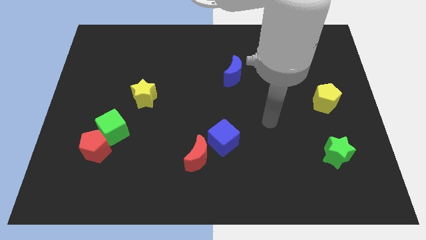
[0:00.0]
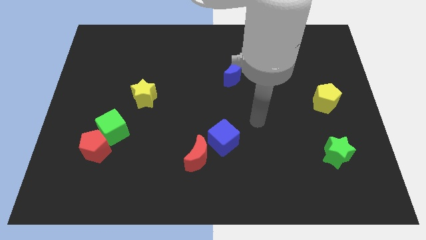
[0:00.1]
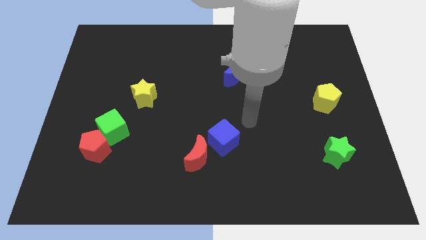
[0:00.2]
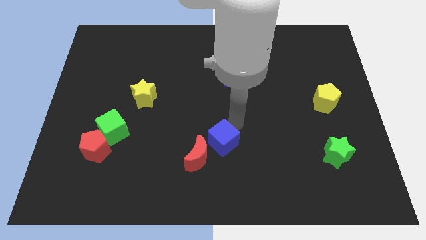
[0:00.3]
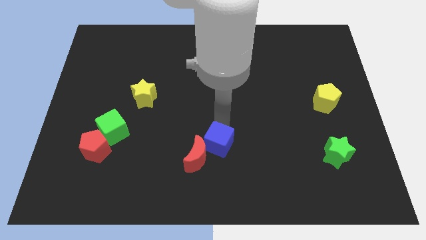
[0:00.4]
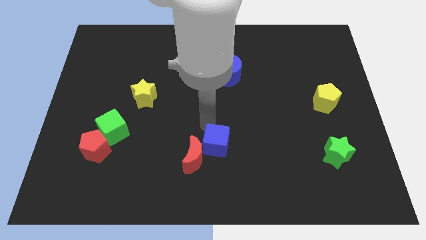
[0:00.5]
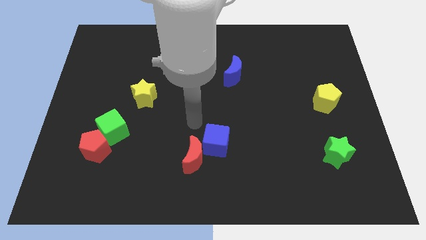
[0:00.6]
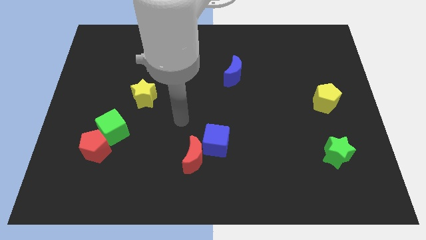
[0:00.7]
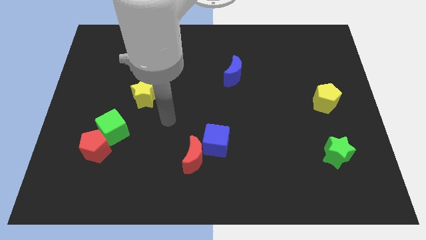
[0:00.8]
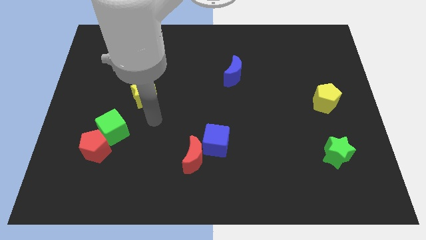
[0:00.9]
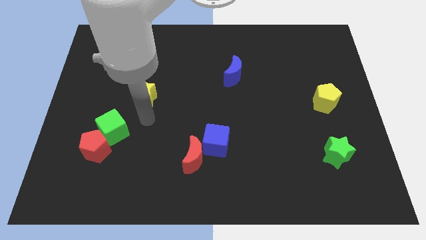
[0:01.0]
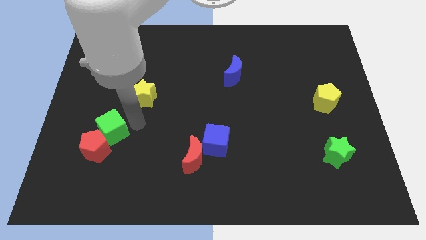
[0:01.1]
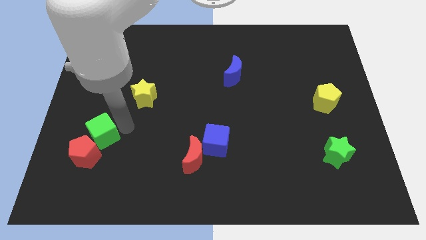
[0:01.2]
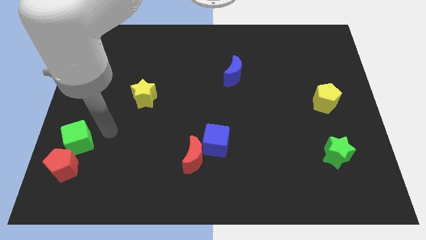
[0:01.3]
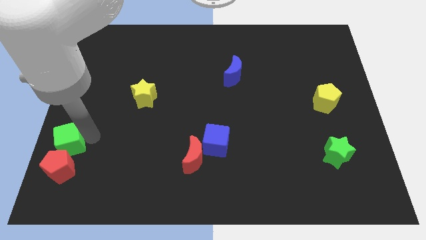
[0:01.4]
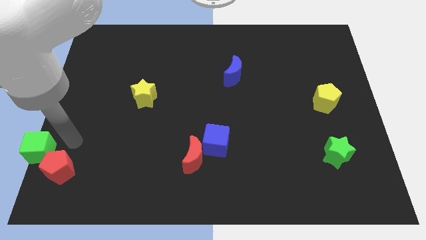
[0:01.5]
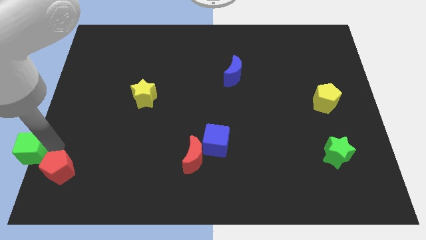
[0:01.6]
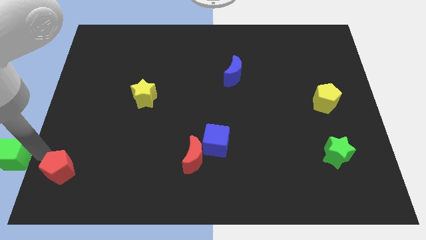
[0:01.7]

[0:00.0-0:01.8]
move the red pentagon away from the green cube

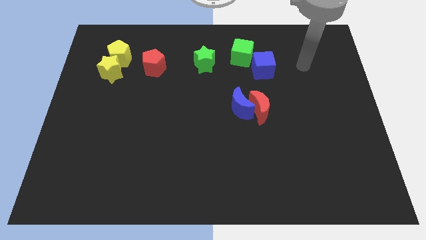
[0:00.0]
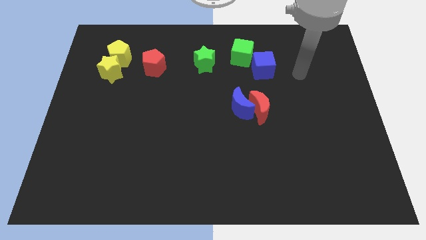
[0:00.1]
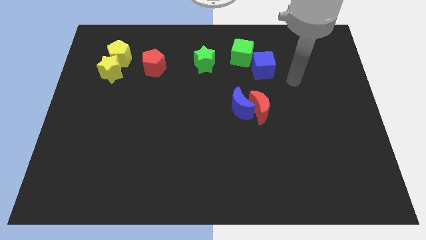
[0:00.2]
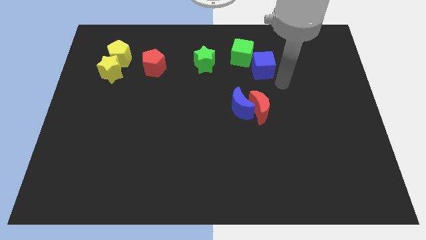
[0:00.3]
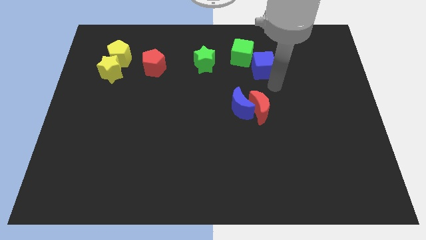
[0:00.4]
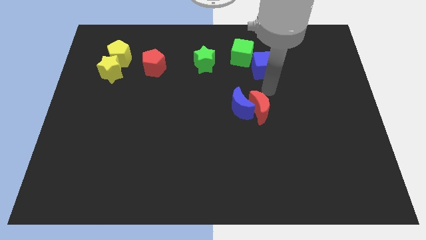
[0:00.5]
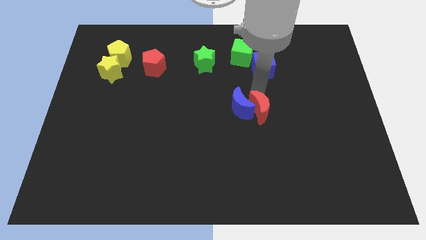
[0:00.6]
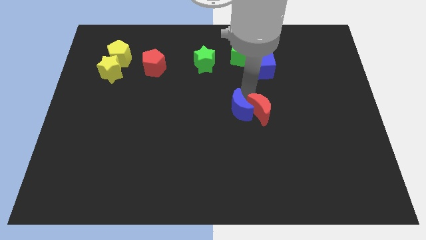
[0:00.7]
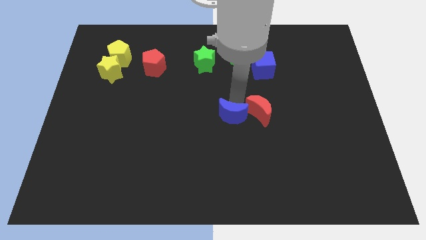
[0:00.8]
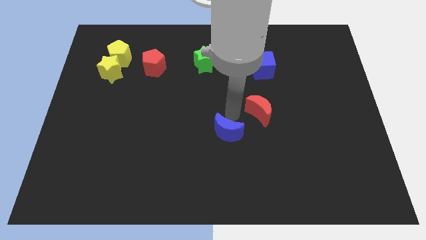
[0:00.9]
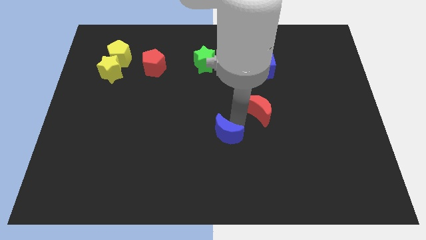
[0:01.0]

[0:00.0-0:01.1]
separate the red moon from the blue moon

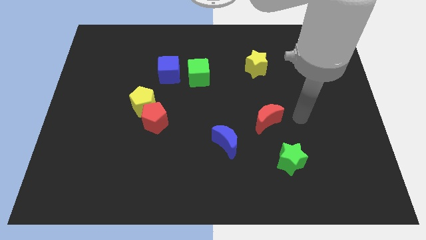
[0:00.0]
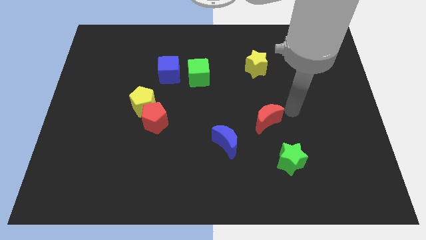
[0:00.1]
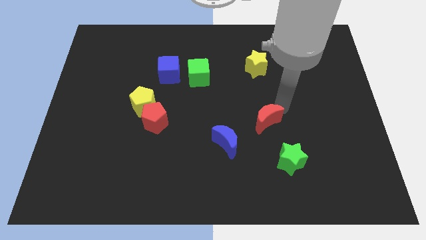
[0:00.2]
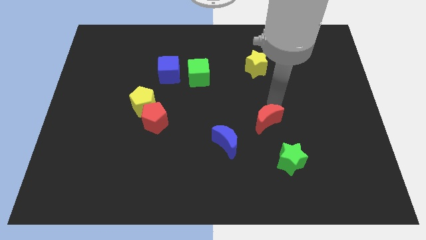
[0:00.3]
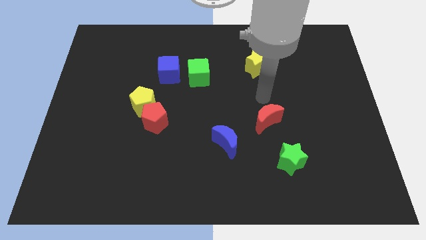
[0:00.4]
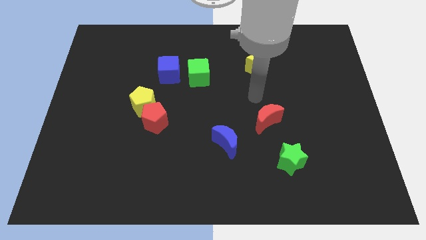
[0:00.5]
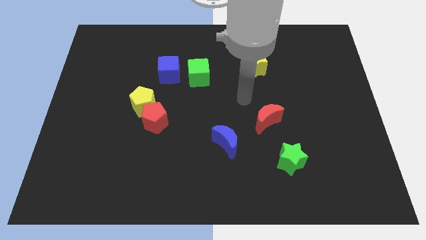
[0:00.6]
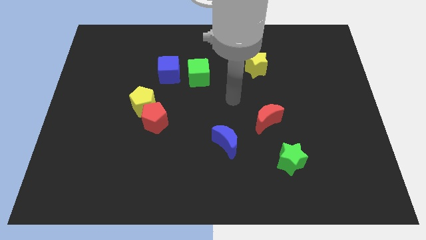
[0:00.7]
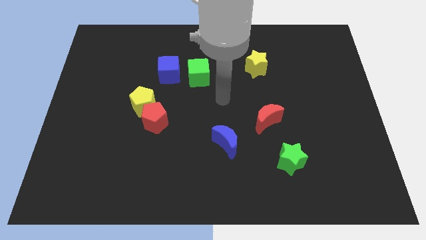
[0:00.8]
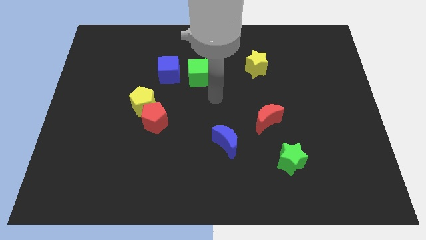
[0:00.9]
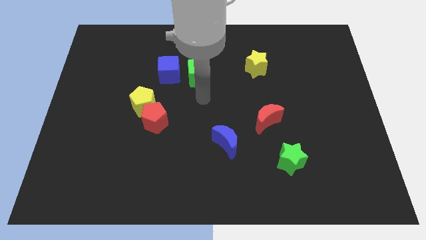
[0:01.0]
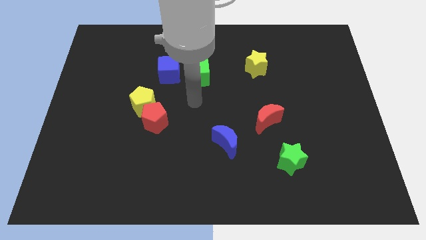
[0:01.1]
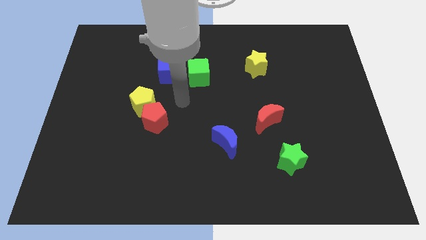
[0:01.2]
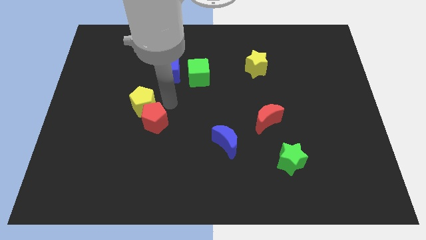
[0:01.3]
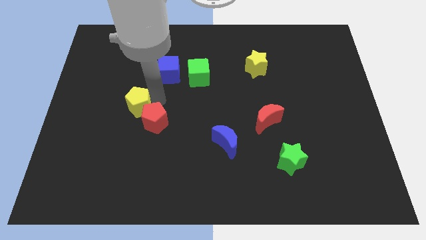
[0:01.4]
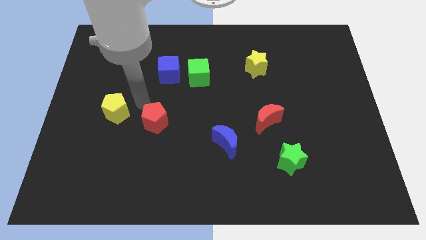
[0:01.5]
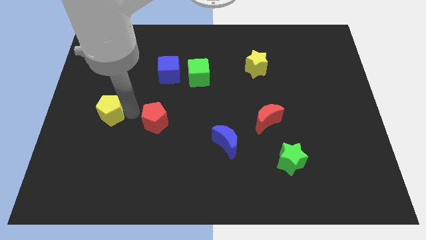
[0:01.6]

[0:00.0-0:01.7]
separate the red pentagon from the yellow pentagon

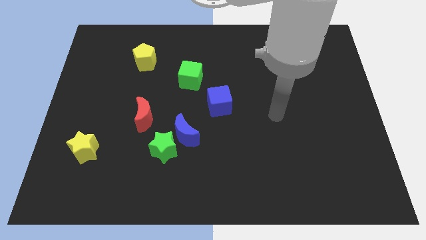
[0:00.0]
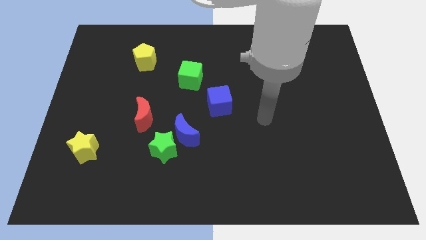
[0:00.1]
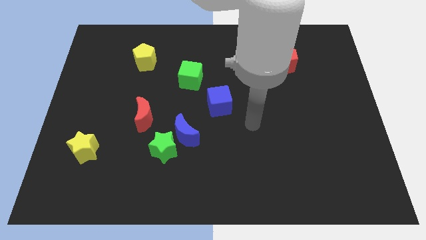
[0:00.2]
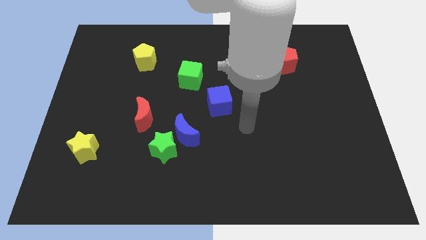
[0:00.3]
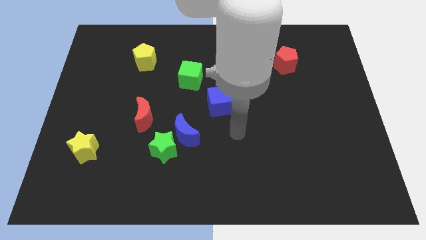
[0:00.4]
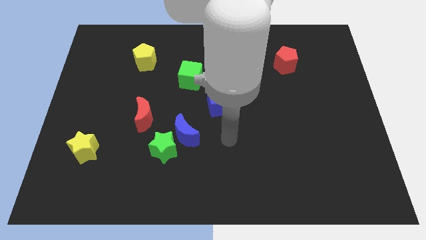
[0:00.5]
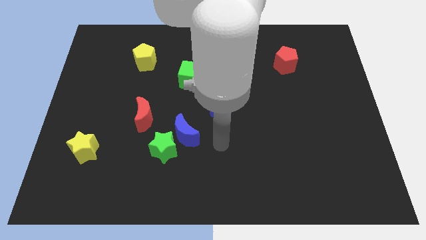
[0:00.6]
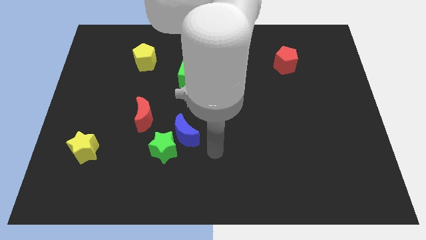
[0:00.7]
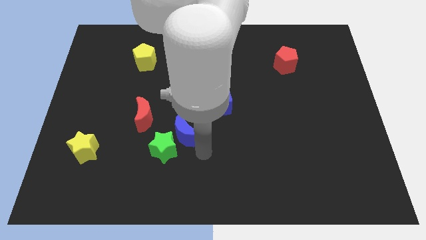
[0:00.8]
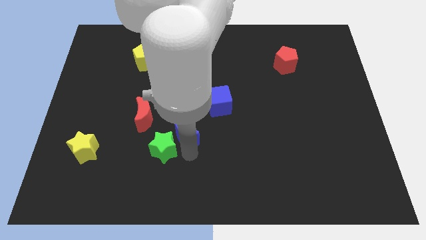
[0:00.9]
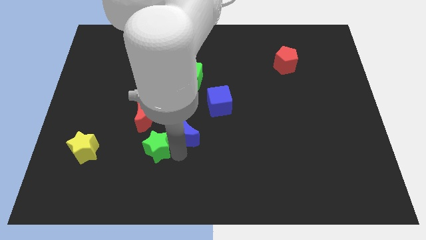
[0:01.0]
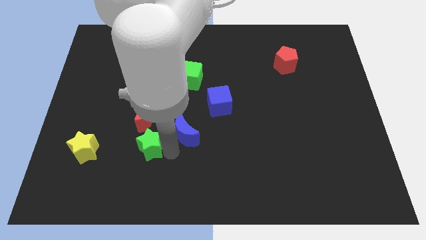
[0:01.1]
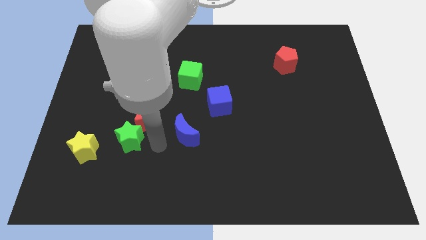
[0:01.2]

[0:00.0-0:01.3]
pull the blue moon apart from the green star

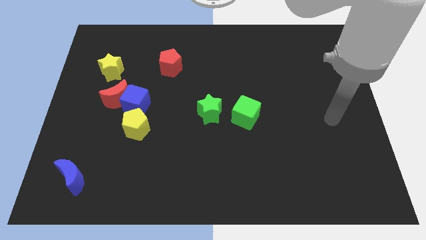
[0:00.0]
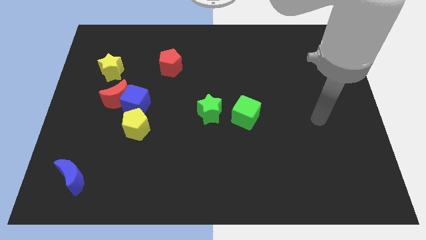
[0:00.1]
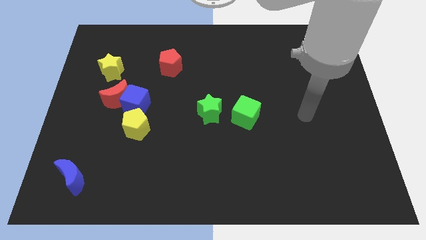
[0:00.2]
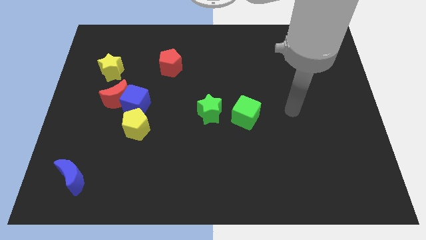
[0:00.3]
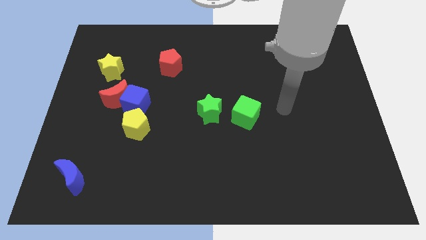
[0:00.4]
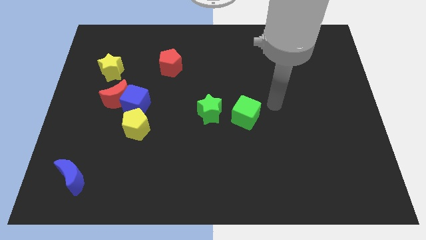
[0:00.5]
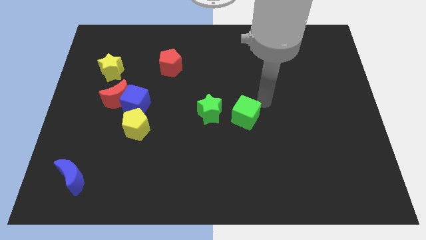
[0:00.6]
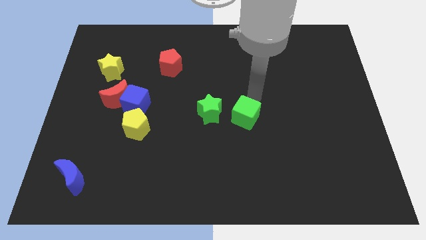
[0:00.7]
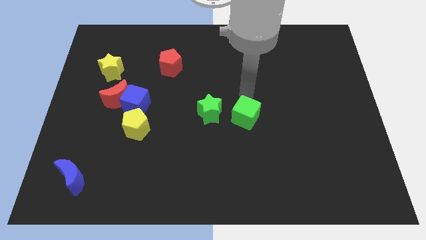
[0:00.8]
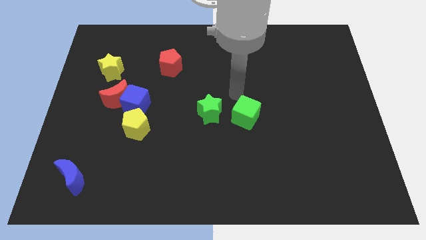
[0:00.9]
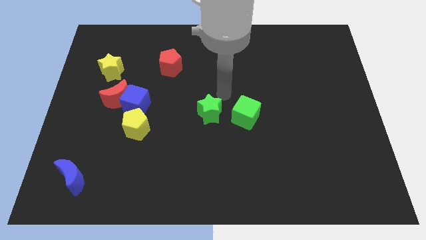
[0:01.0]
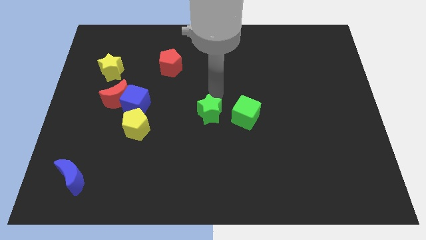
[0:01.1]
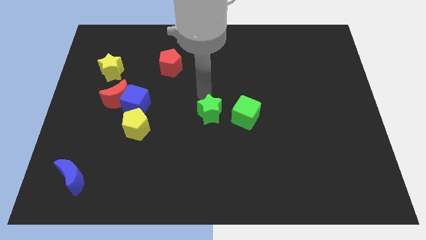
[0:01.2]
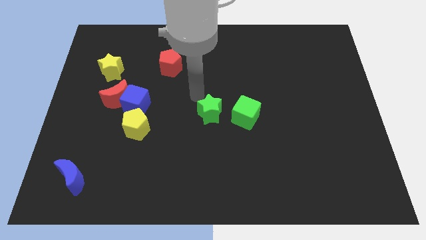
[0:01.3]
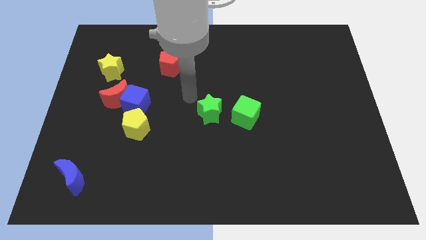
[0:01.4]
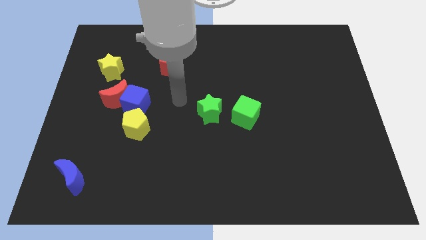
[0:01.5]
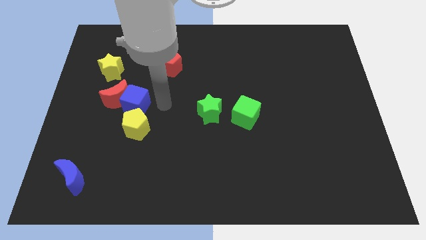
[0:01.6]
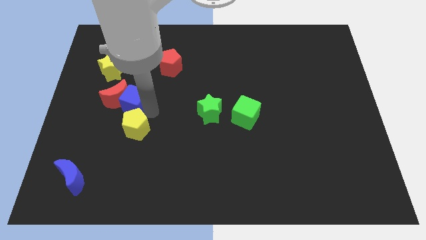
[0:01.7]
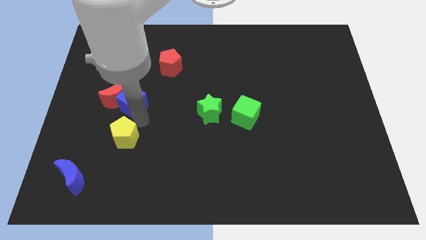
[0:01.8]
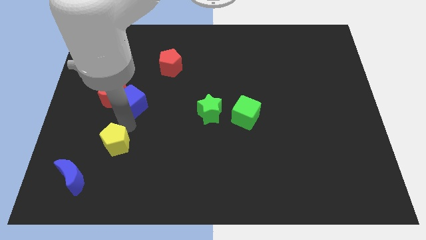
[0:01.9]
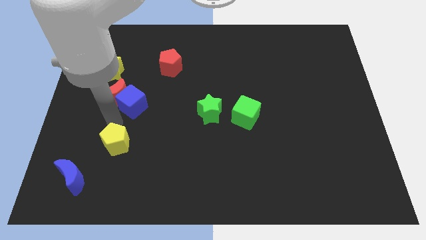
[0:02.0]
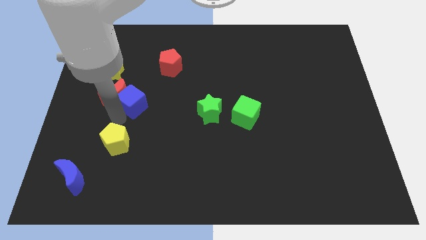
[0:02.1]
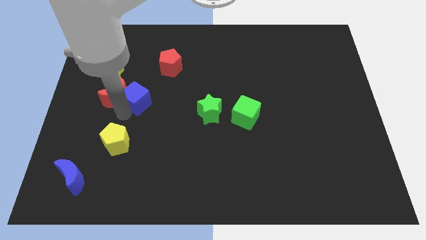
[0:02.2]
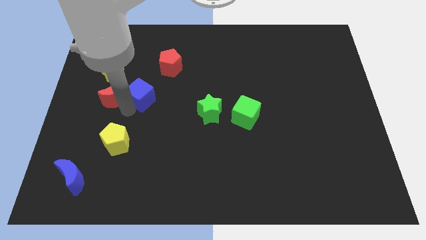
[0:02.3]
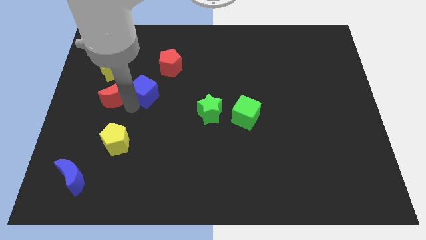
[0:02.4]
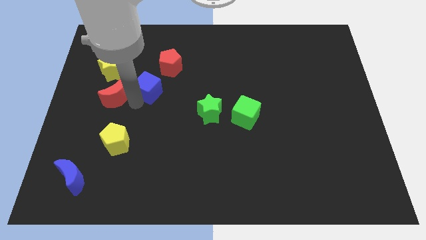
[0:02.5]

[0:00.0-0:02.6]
pull the blue cube apart from the red moon and yellow pentagon

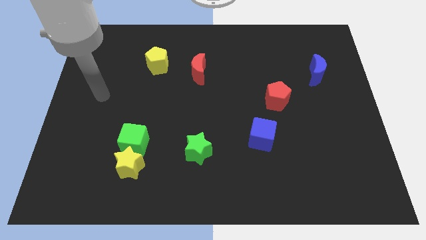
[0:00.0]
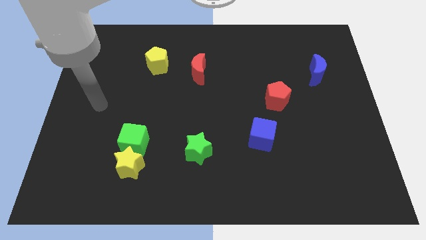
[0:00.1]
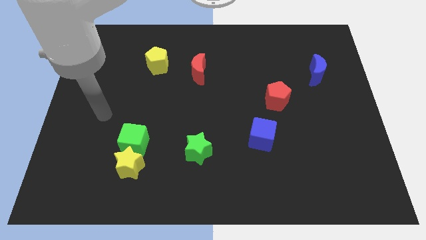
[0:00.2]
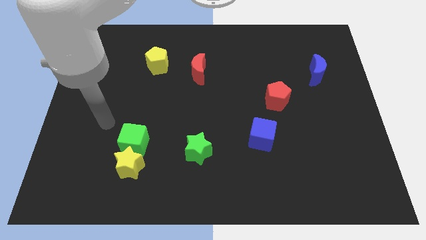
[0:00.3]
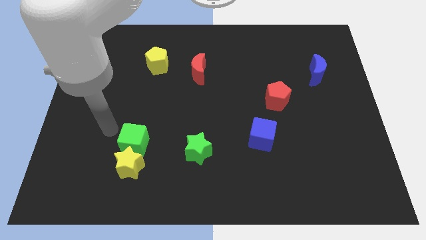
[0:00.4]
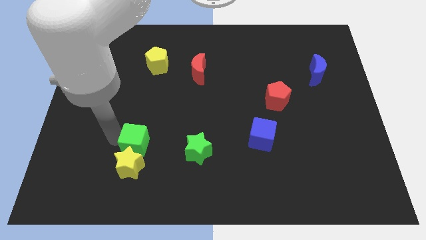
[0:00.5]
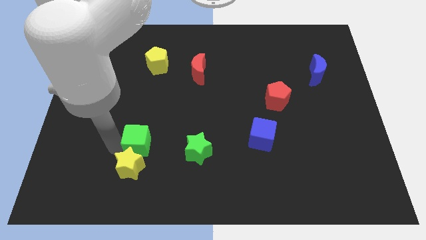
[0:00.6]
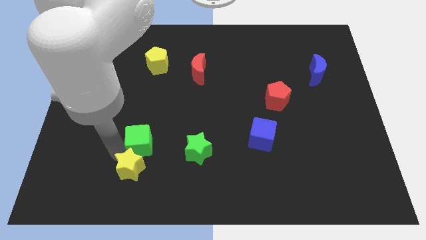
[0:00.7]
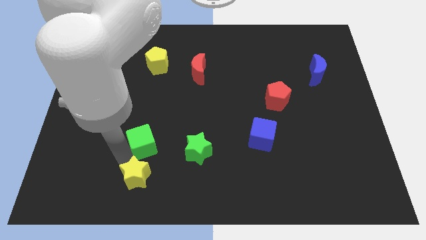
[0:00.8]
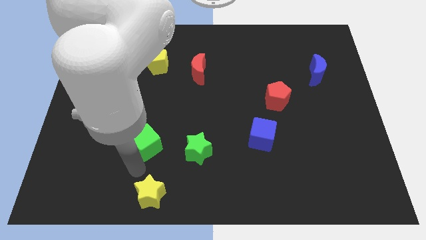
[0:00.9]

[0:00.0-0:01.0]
pull the green cube apart from the yellow star

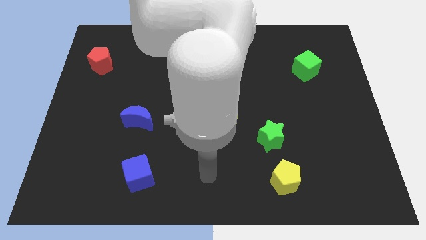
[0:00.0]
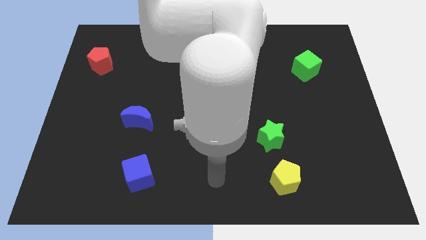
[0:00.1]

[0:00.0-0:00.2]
move the green star away from the yellow pentagon
